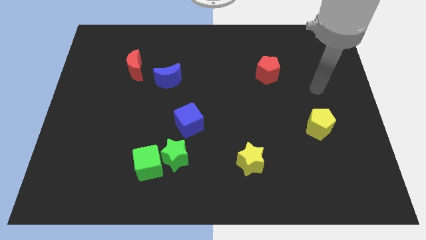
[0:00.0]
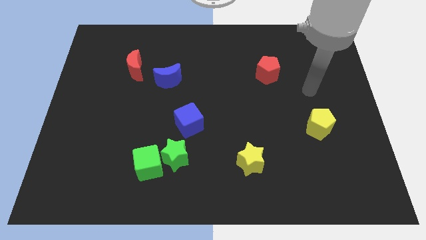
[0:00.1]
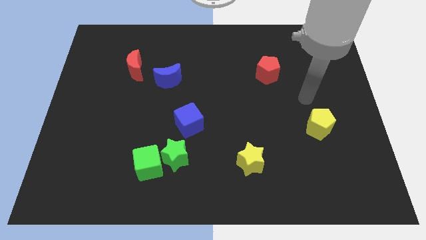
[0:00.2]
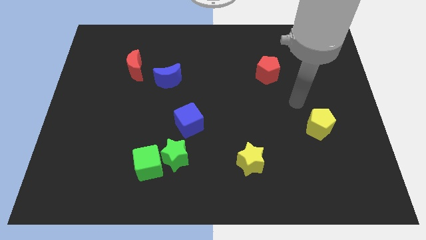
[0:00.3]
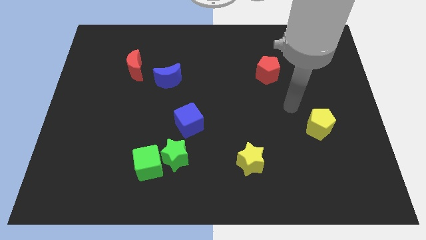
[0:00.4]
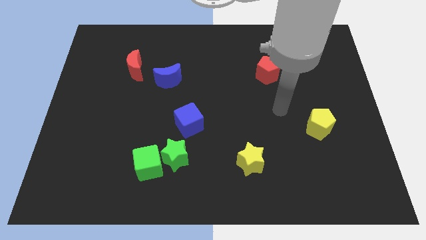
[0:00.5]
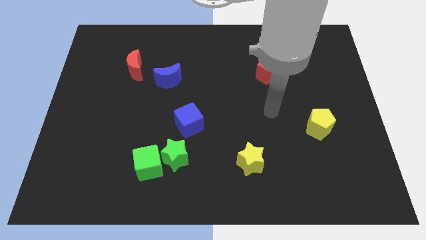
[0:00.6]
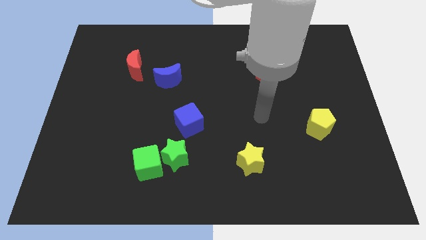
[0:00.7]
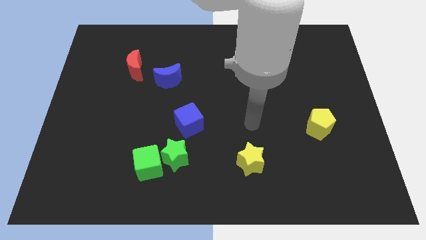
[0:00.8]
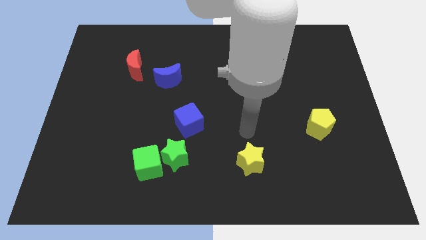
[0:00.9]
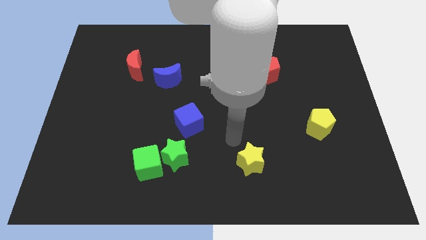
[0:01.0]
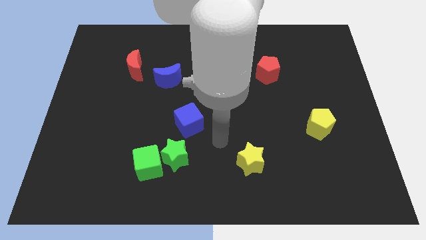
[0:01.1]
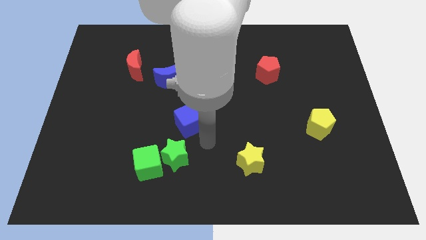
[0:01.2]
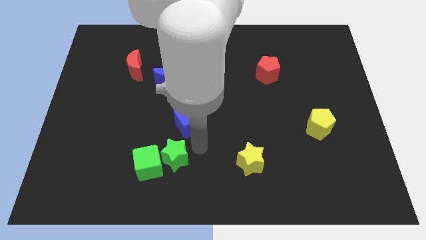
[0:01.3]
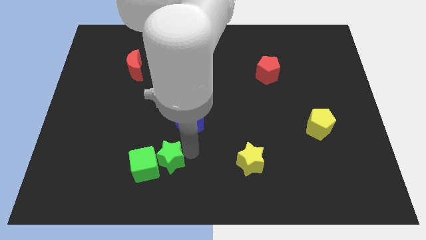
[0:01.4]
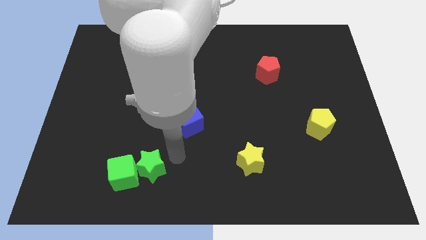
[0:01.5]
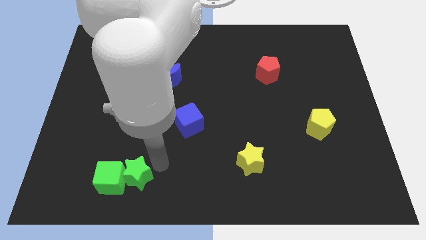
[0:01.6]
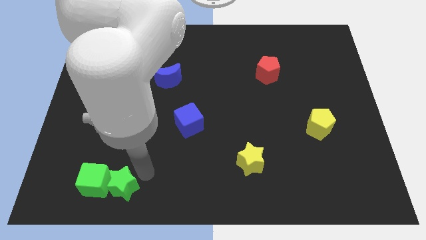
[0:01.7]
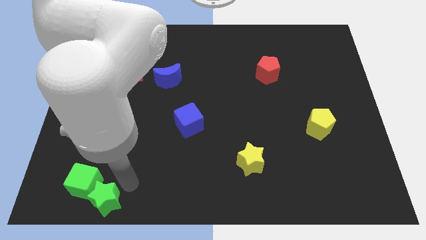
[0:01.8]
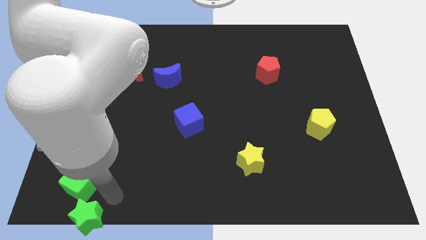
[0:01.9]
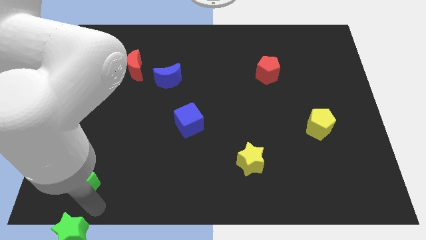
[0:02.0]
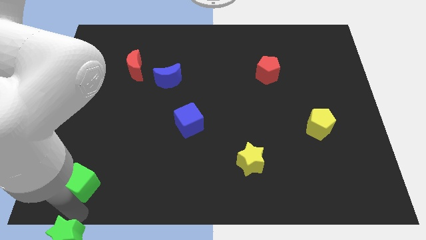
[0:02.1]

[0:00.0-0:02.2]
pull the green cube apart from the green star

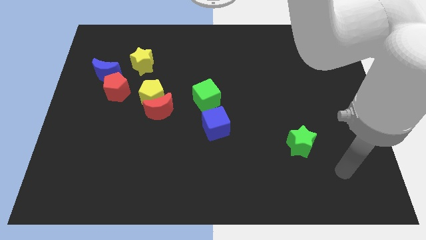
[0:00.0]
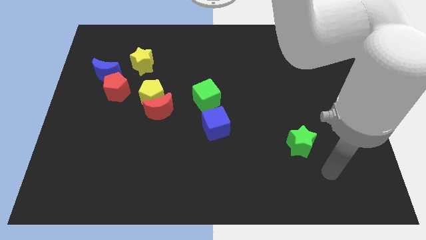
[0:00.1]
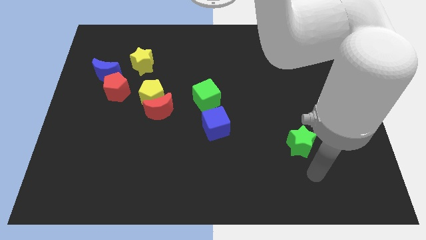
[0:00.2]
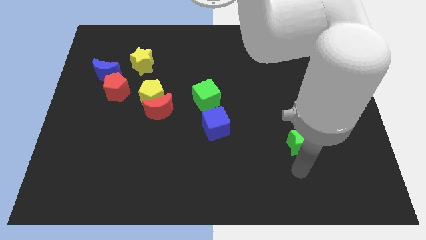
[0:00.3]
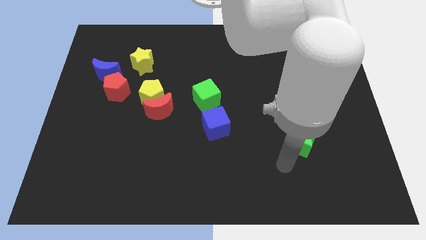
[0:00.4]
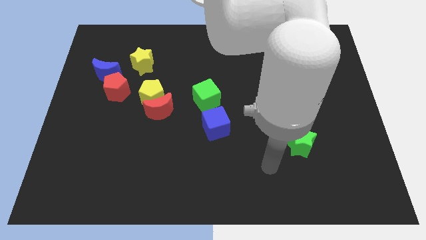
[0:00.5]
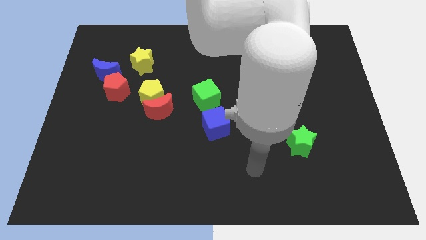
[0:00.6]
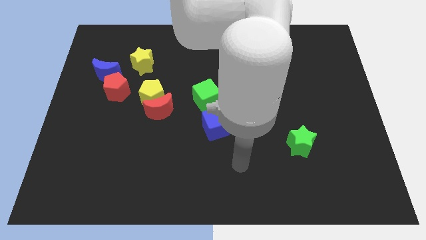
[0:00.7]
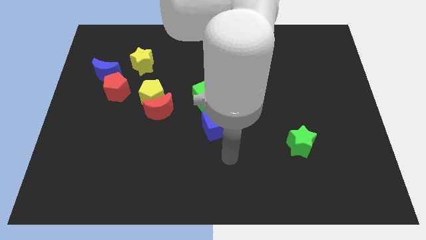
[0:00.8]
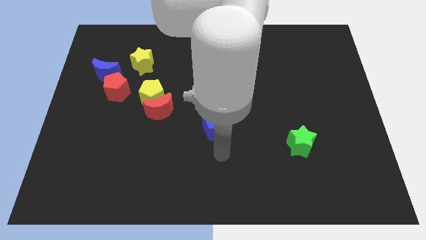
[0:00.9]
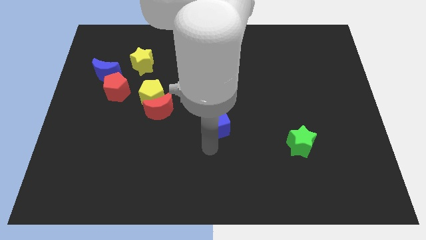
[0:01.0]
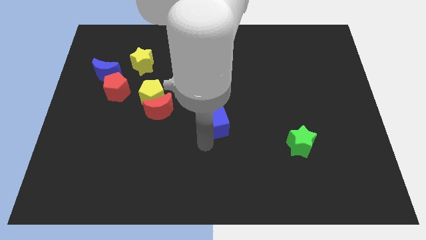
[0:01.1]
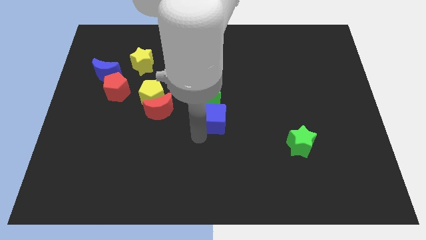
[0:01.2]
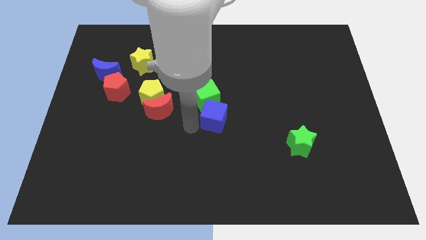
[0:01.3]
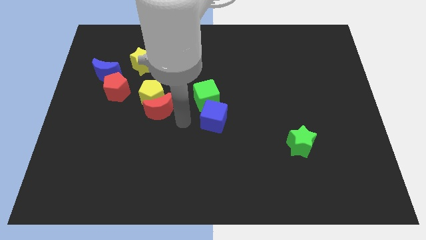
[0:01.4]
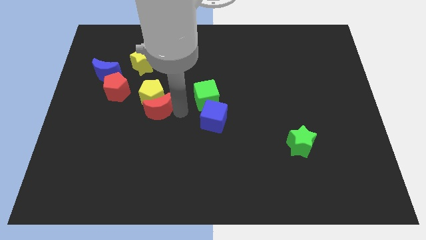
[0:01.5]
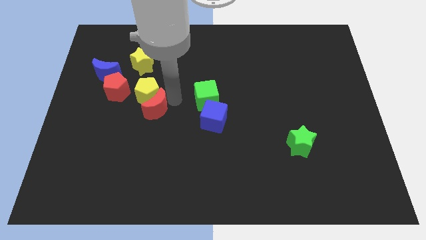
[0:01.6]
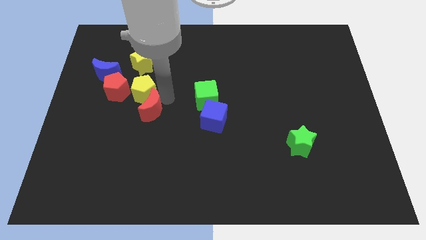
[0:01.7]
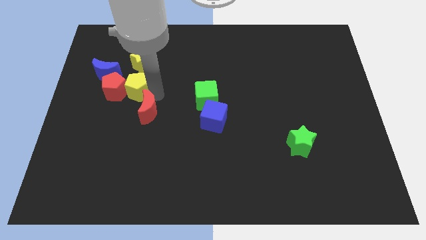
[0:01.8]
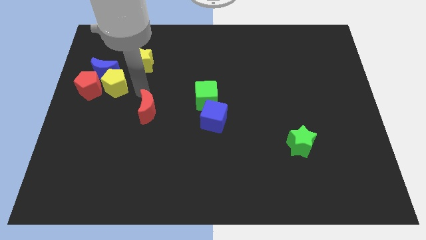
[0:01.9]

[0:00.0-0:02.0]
move the red moon away from the yellow pentagon

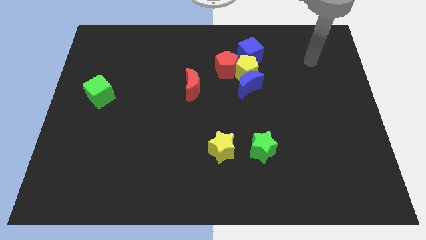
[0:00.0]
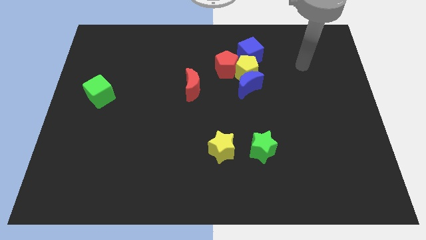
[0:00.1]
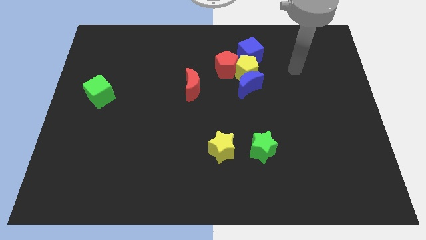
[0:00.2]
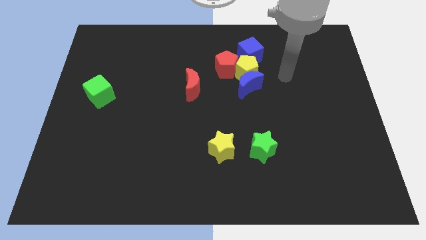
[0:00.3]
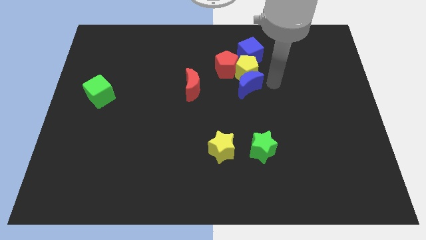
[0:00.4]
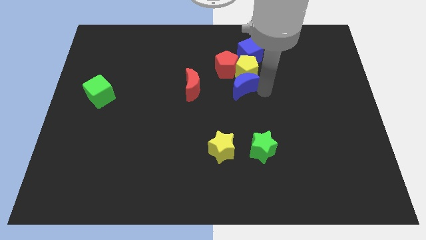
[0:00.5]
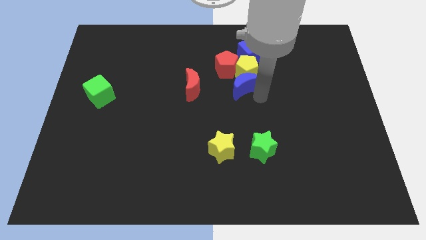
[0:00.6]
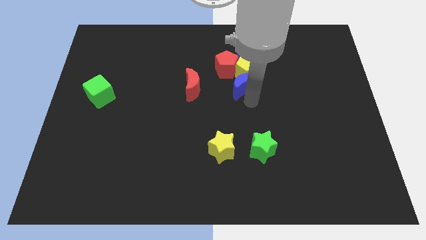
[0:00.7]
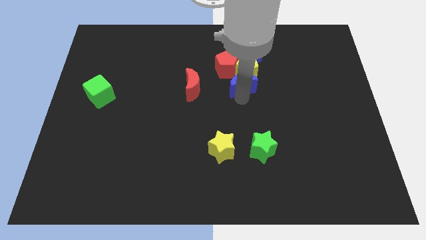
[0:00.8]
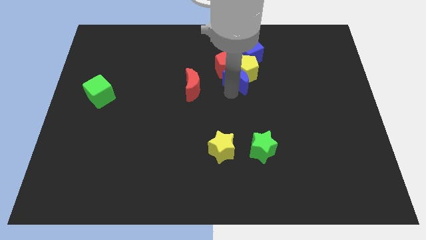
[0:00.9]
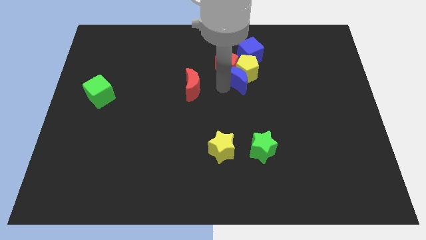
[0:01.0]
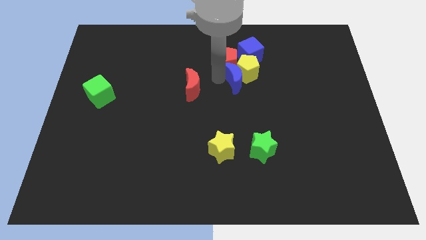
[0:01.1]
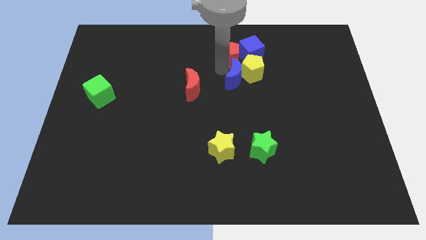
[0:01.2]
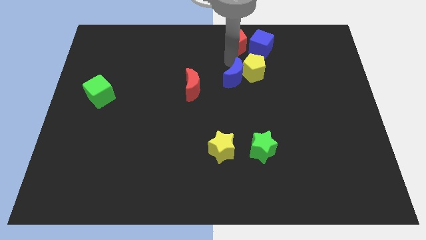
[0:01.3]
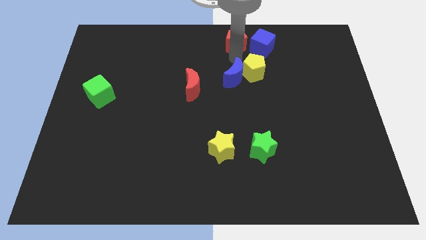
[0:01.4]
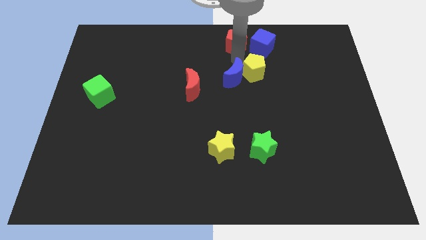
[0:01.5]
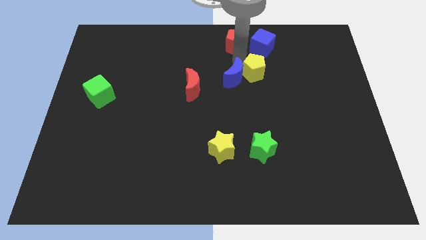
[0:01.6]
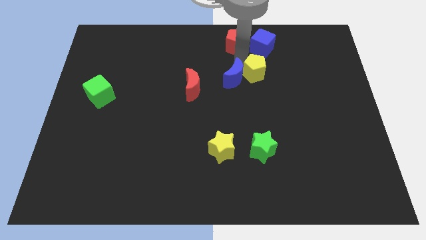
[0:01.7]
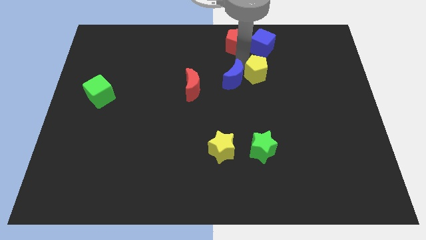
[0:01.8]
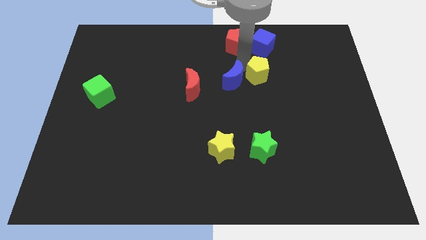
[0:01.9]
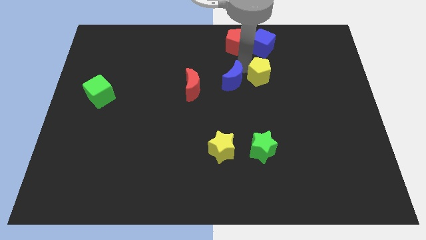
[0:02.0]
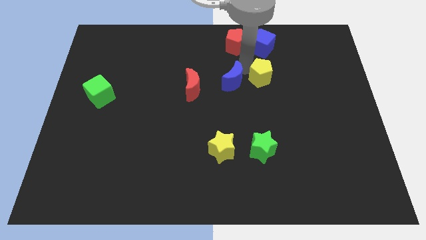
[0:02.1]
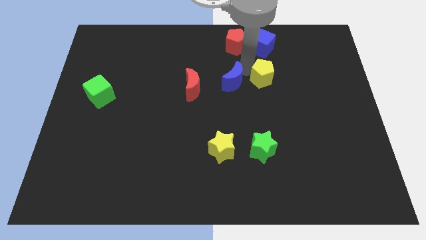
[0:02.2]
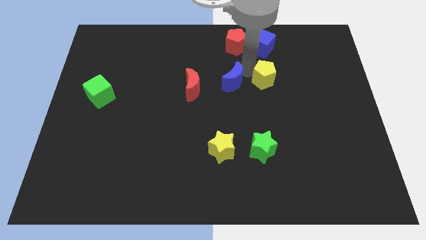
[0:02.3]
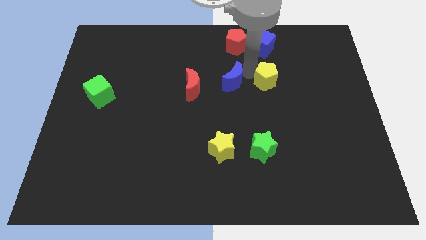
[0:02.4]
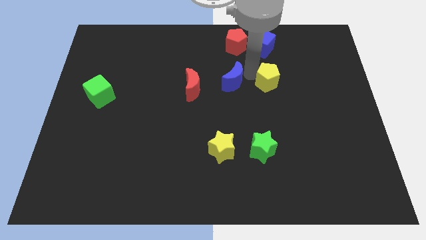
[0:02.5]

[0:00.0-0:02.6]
move the yellow pentagon away from the blue moon, red pentagon, and blue cube

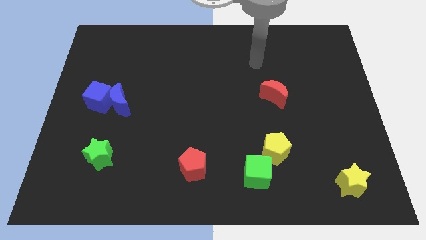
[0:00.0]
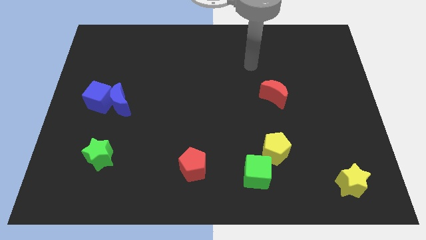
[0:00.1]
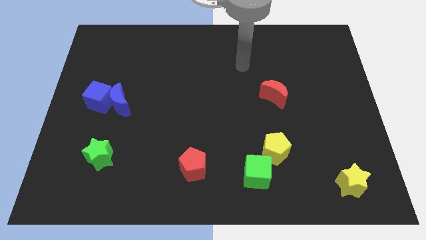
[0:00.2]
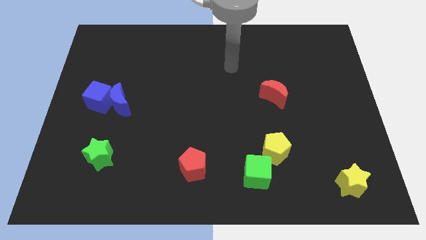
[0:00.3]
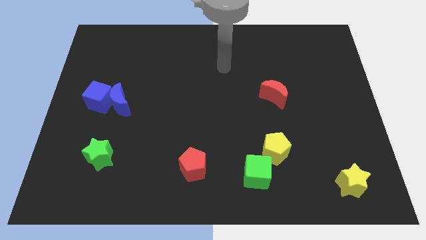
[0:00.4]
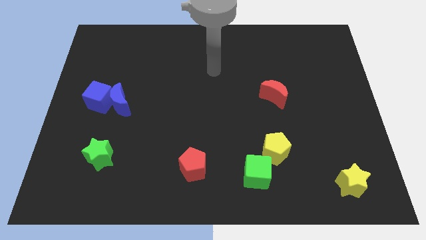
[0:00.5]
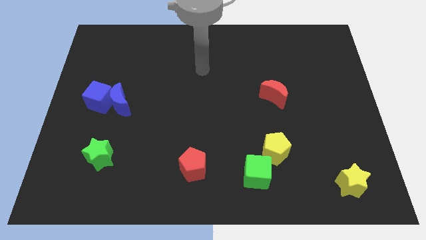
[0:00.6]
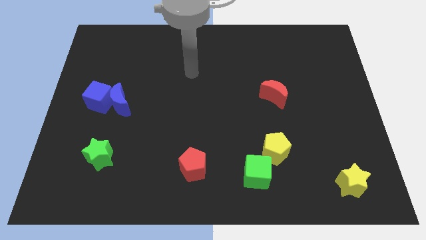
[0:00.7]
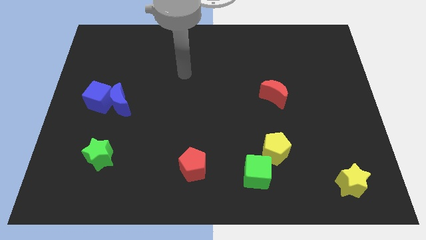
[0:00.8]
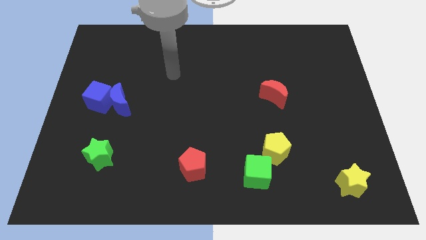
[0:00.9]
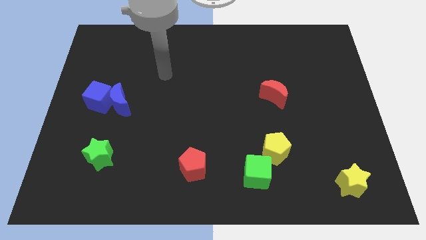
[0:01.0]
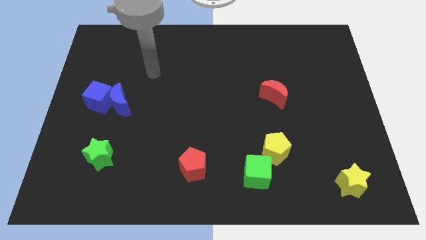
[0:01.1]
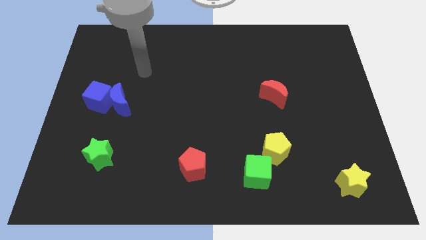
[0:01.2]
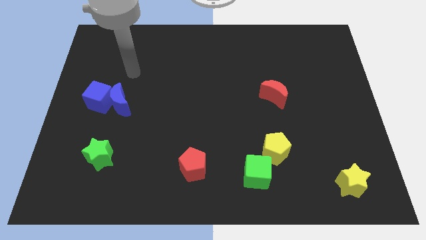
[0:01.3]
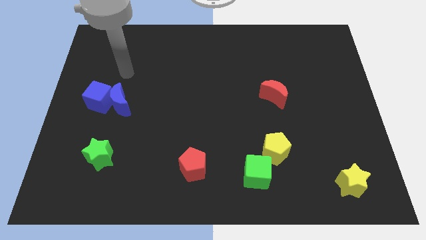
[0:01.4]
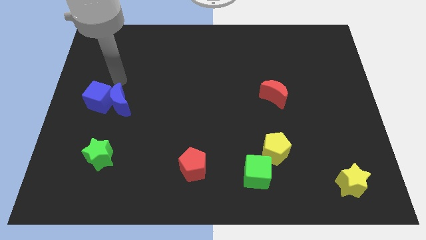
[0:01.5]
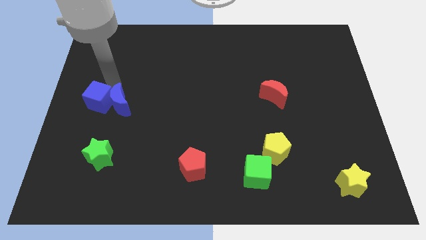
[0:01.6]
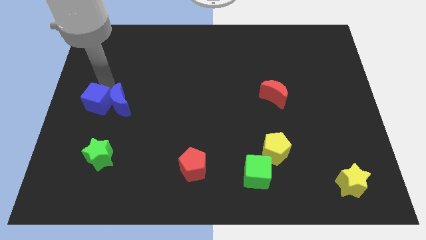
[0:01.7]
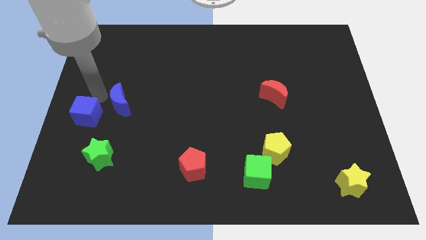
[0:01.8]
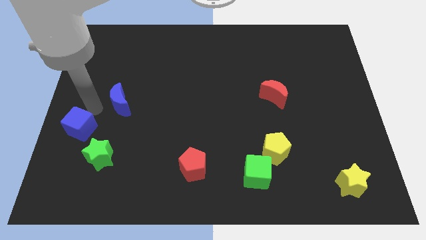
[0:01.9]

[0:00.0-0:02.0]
separate the blue moon from the blue cube

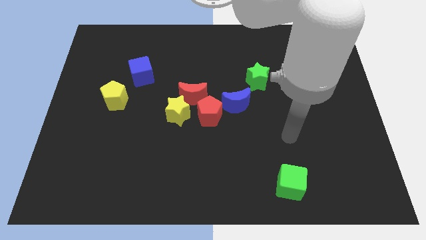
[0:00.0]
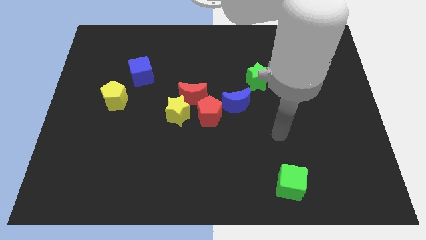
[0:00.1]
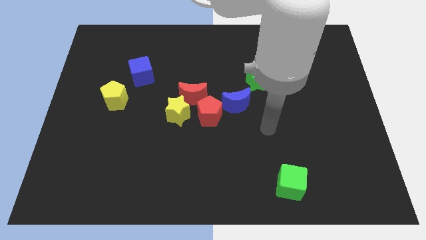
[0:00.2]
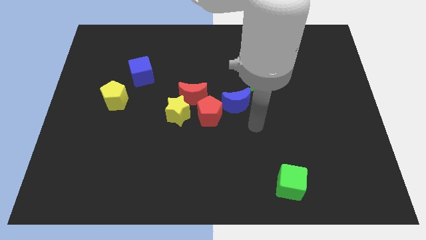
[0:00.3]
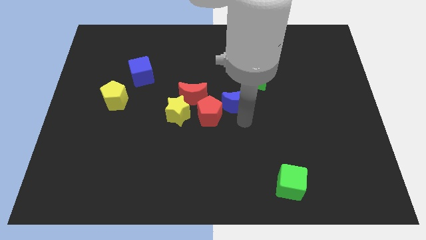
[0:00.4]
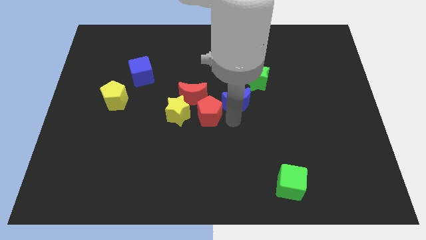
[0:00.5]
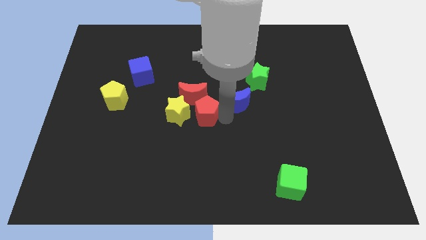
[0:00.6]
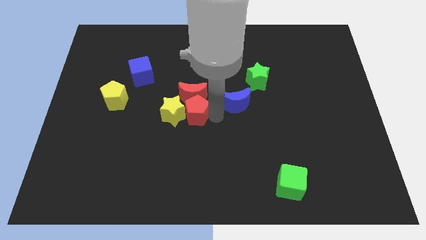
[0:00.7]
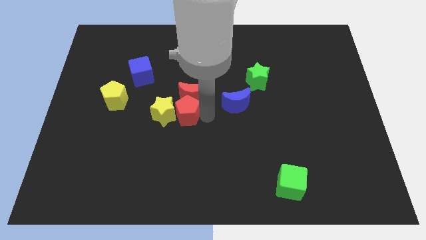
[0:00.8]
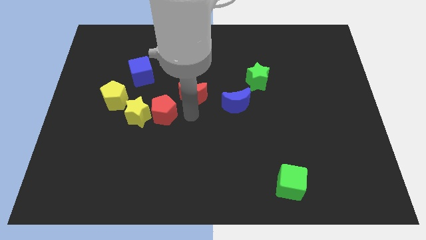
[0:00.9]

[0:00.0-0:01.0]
move the red moon away from the yellow star and red pentagon
